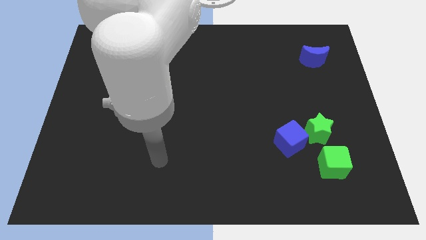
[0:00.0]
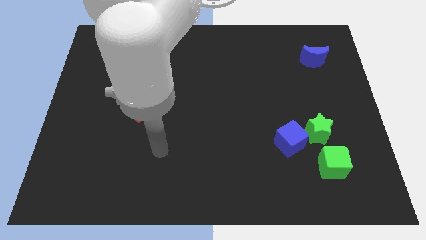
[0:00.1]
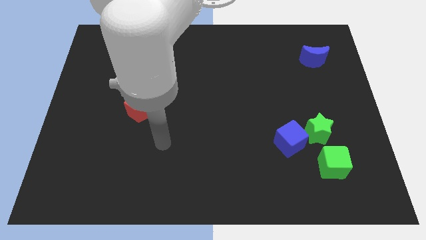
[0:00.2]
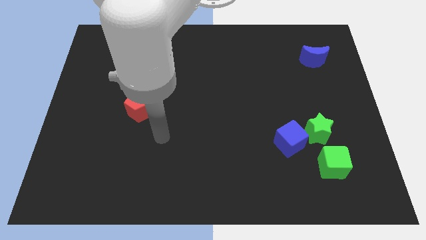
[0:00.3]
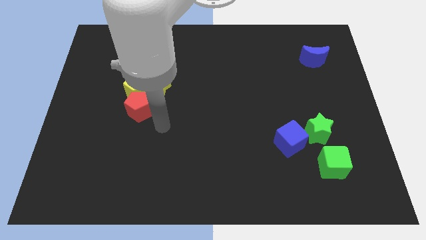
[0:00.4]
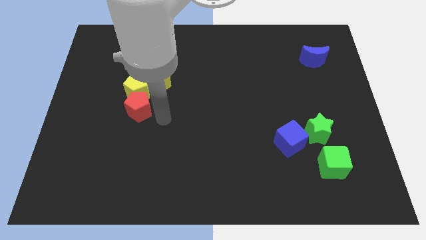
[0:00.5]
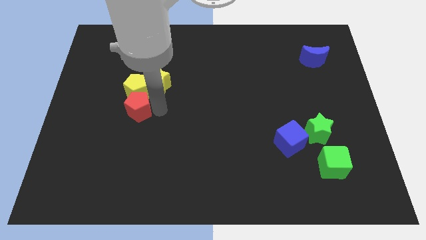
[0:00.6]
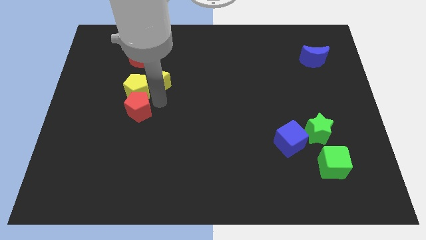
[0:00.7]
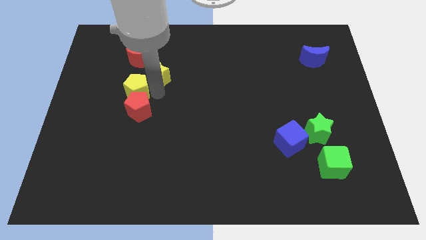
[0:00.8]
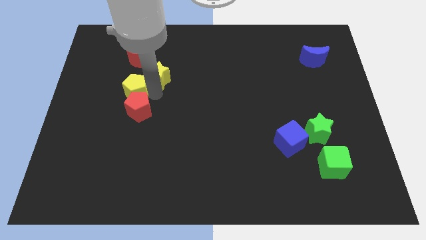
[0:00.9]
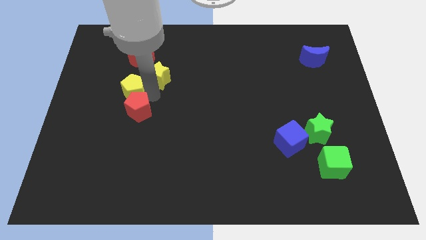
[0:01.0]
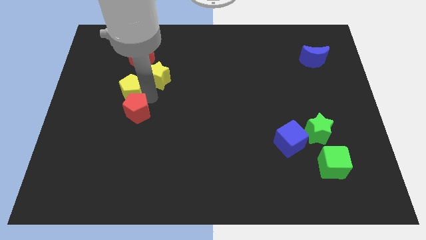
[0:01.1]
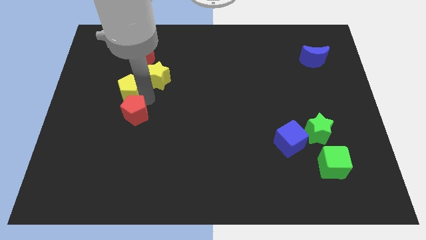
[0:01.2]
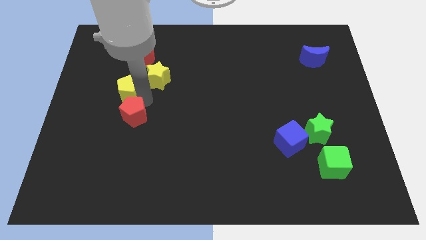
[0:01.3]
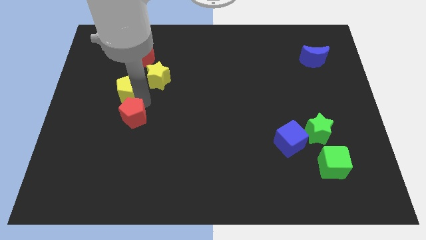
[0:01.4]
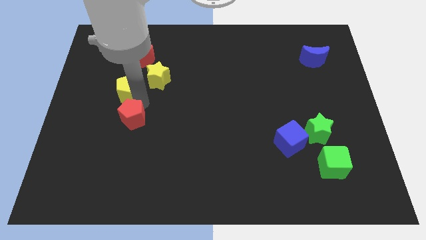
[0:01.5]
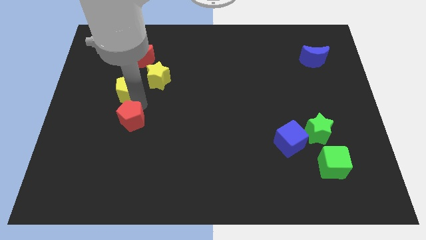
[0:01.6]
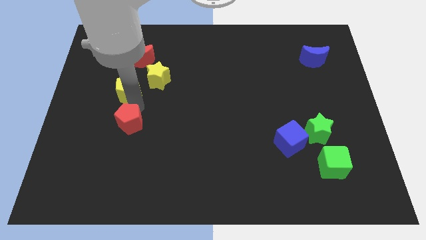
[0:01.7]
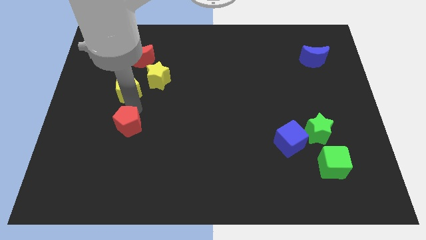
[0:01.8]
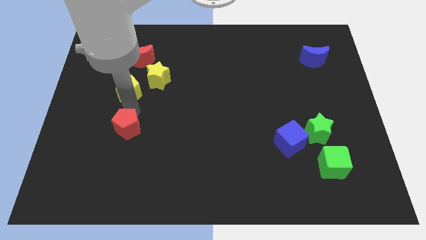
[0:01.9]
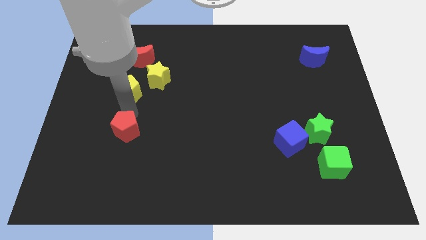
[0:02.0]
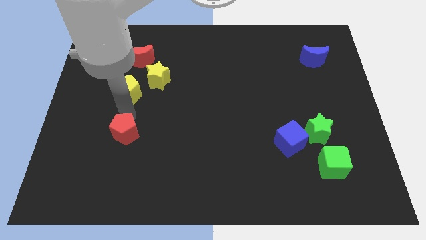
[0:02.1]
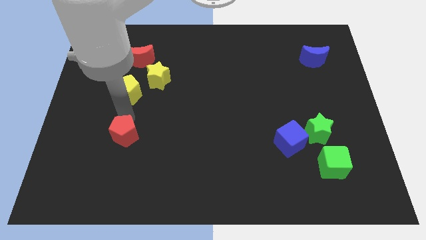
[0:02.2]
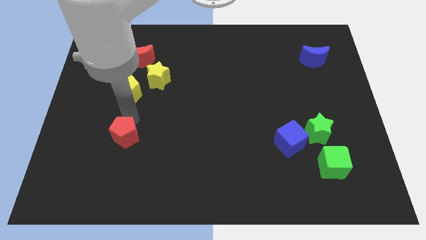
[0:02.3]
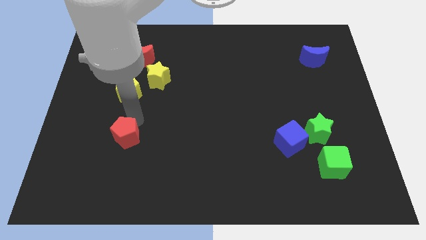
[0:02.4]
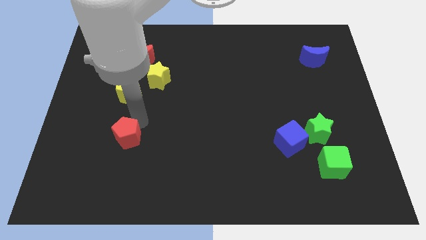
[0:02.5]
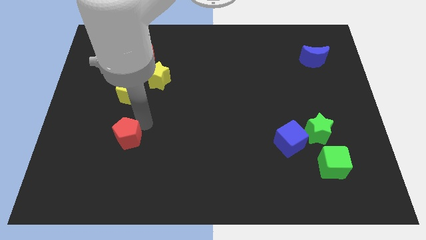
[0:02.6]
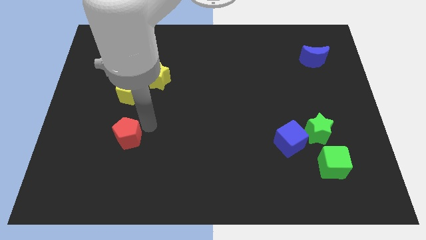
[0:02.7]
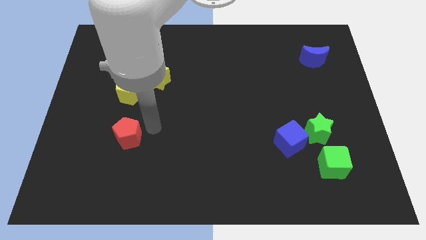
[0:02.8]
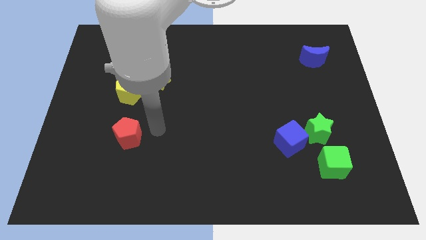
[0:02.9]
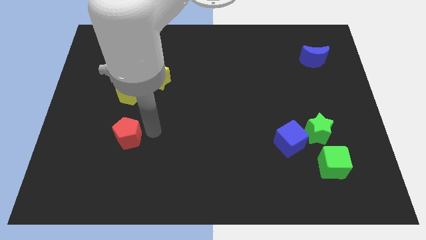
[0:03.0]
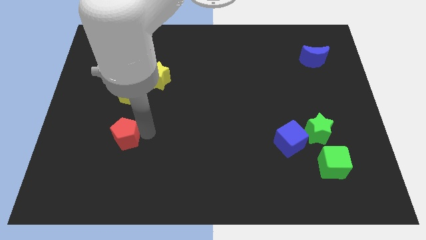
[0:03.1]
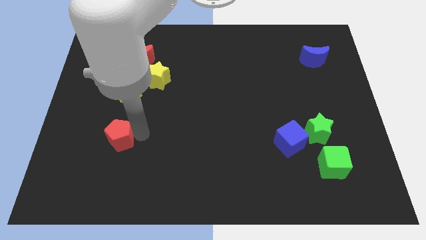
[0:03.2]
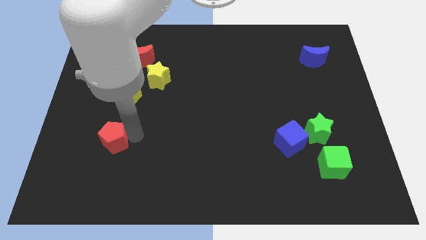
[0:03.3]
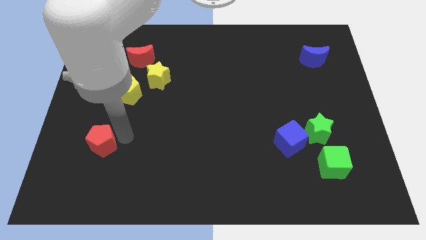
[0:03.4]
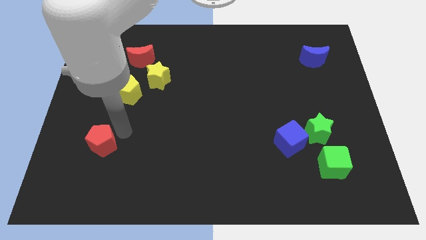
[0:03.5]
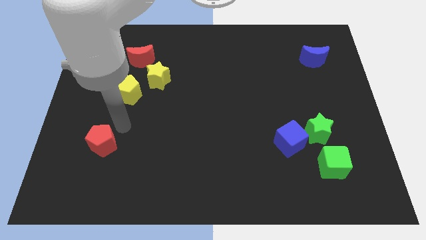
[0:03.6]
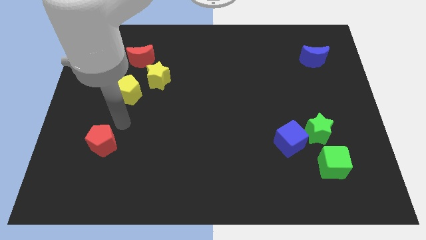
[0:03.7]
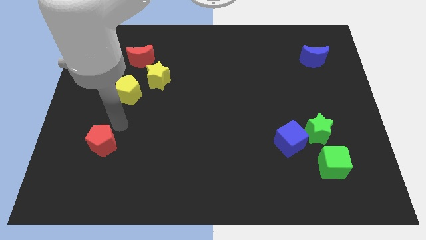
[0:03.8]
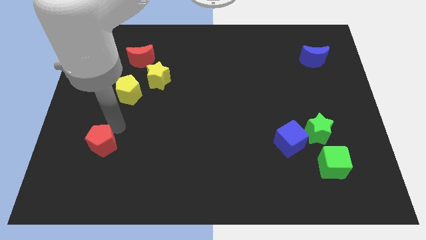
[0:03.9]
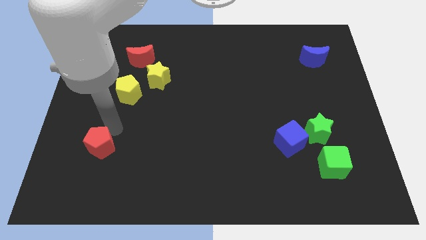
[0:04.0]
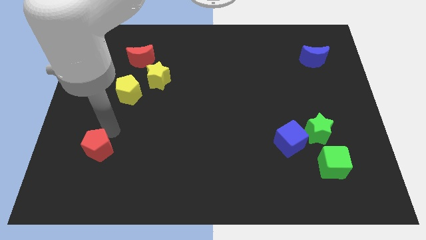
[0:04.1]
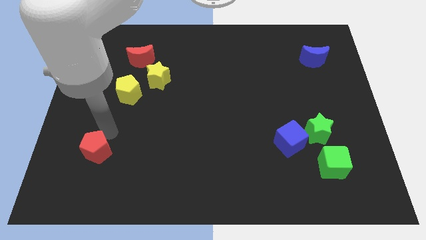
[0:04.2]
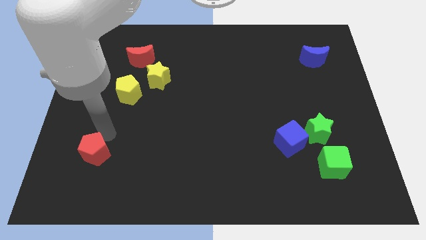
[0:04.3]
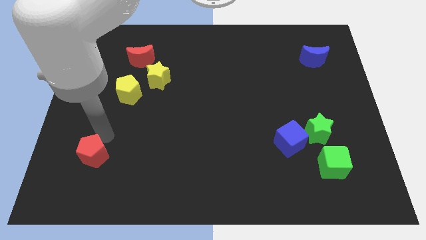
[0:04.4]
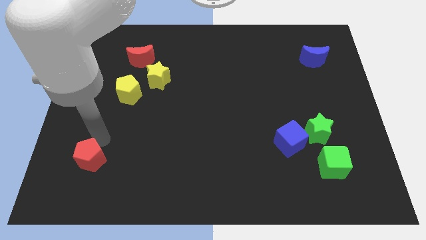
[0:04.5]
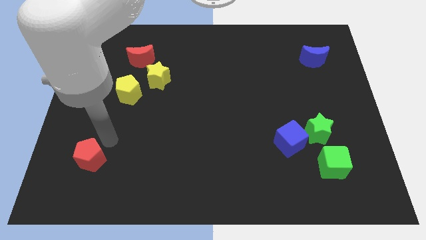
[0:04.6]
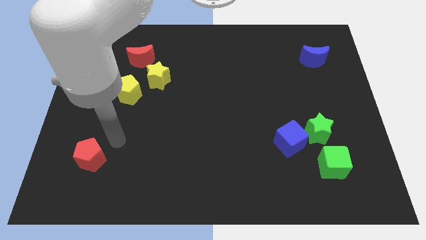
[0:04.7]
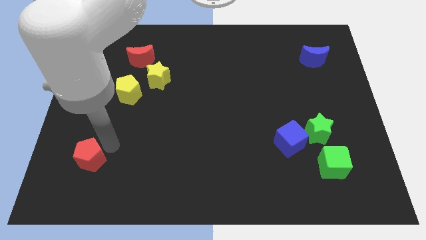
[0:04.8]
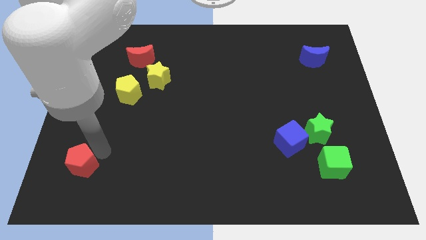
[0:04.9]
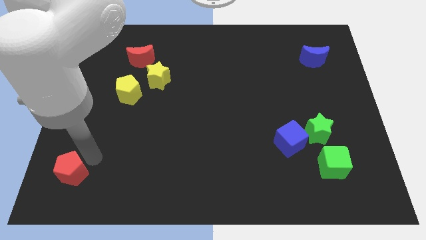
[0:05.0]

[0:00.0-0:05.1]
move the red pentagon to the lower left corner

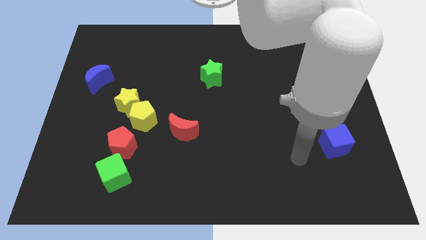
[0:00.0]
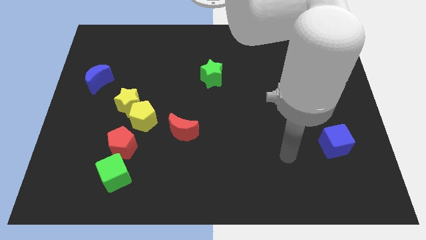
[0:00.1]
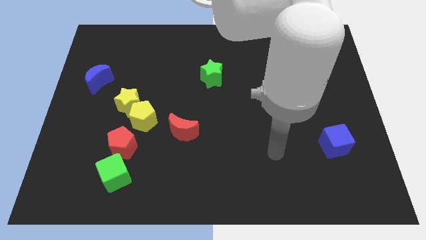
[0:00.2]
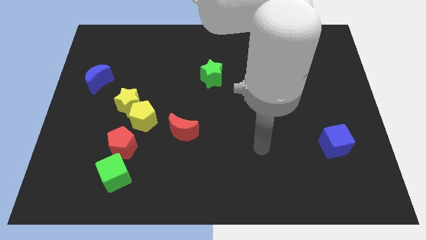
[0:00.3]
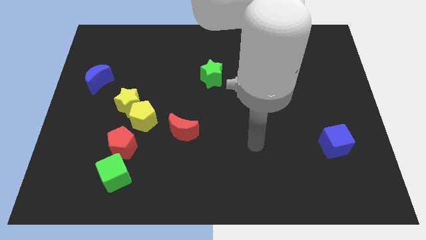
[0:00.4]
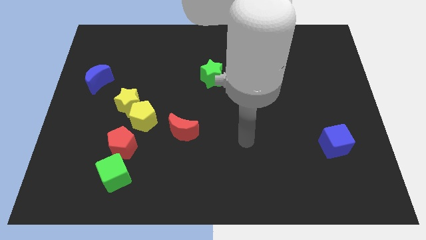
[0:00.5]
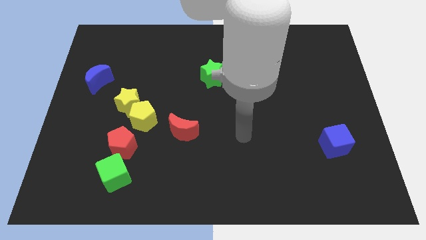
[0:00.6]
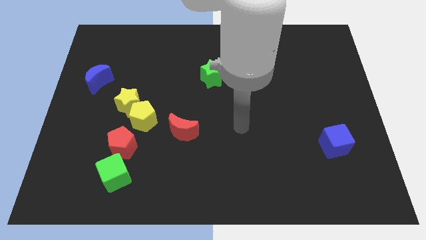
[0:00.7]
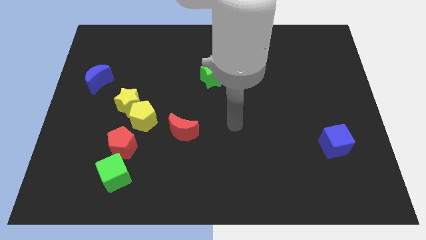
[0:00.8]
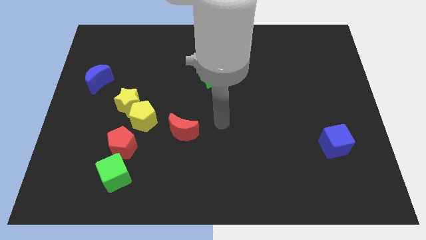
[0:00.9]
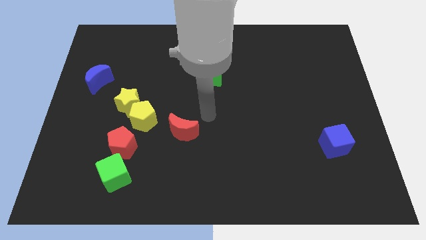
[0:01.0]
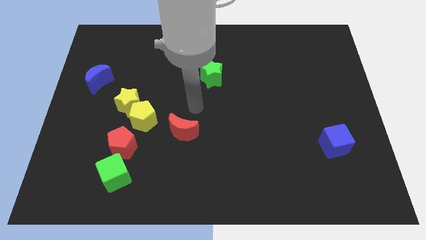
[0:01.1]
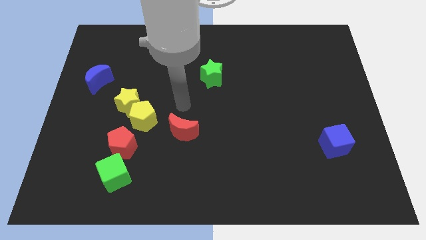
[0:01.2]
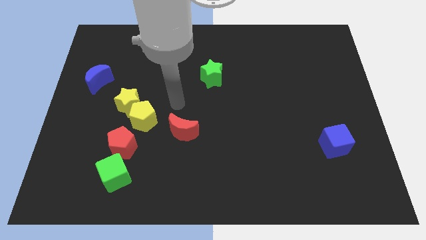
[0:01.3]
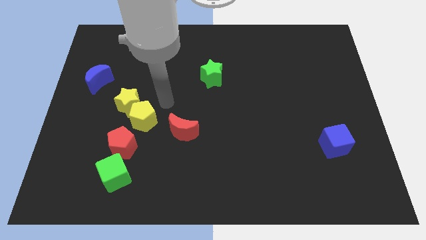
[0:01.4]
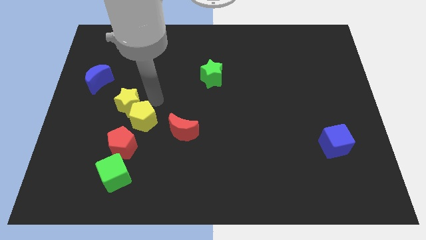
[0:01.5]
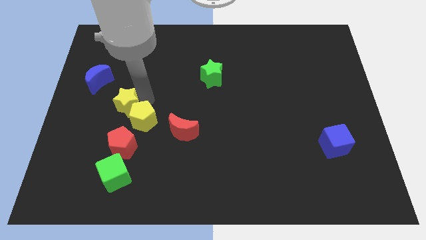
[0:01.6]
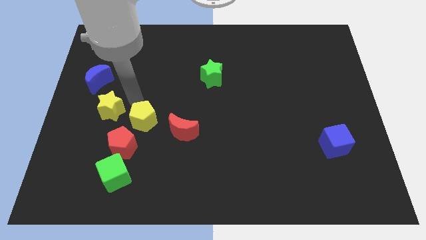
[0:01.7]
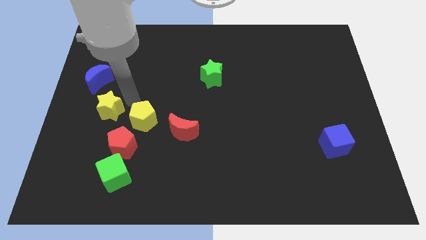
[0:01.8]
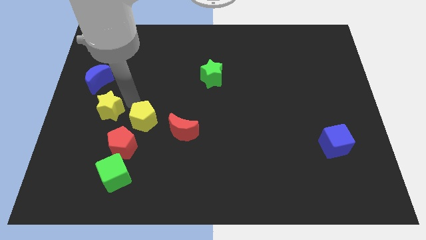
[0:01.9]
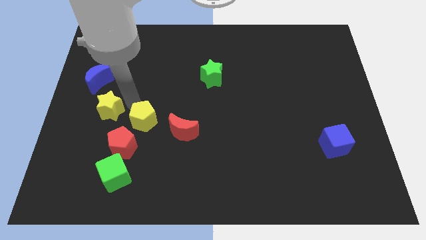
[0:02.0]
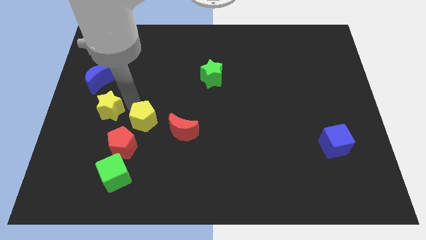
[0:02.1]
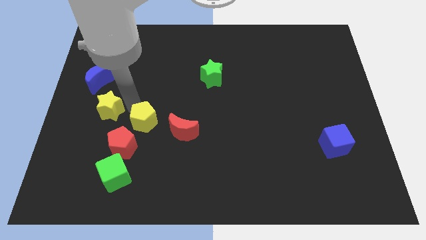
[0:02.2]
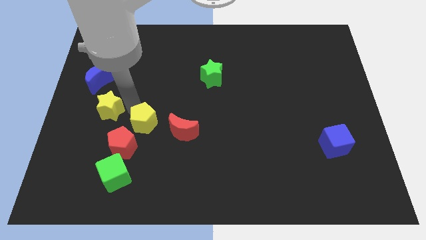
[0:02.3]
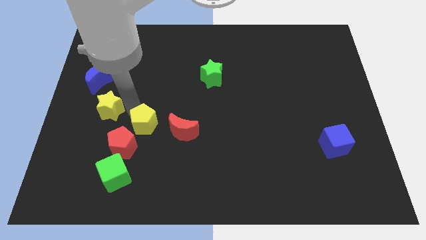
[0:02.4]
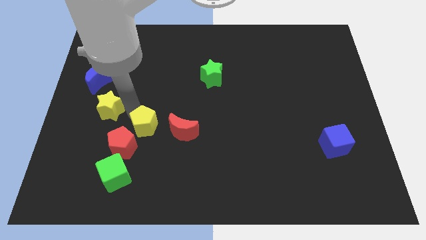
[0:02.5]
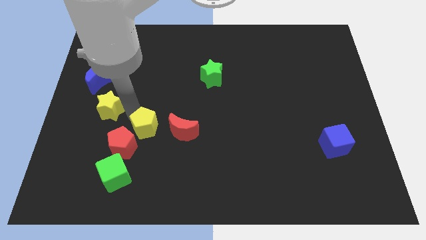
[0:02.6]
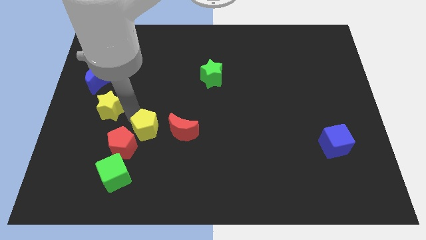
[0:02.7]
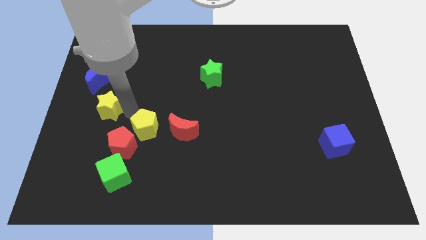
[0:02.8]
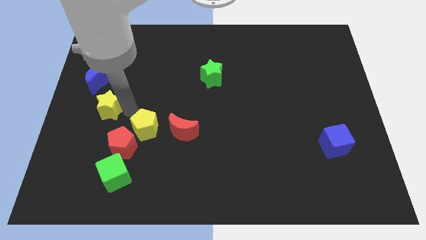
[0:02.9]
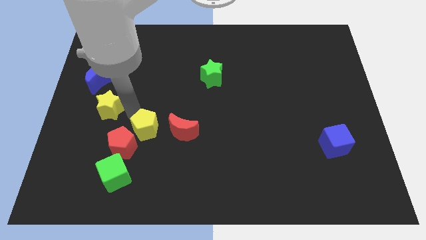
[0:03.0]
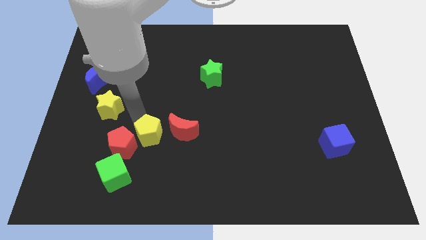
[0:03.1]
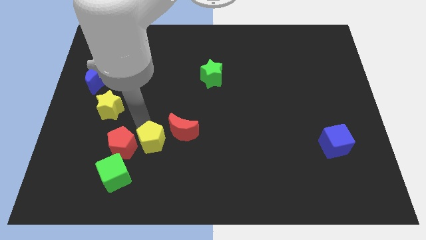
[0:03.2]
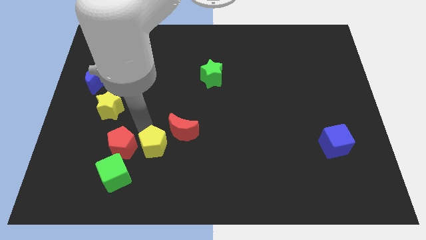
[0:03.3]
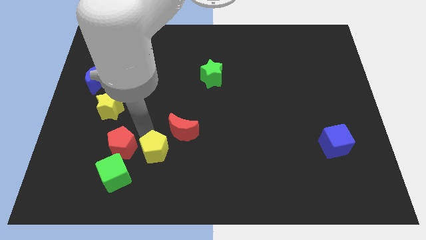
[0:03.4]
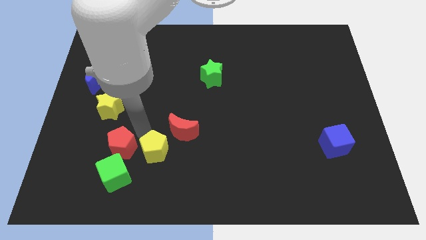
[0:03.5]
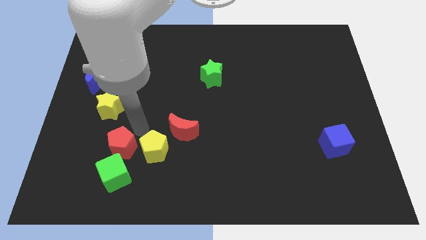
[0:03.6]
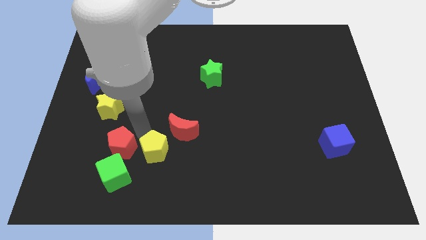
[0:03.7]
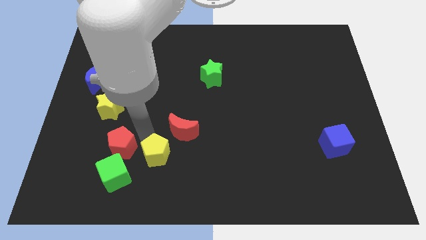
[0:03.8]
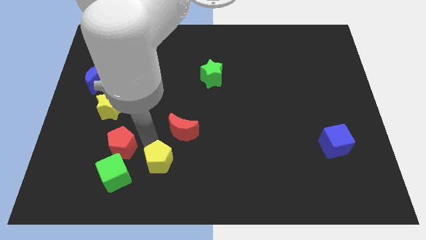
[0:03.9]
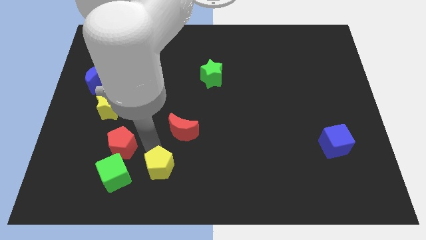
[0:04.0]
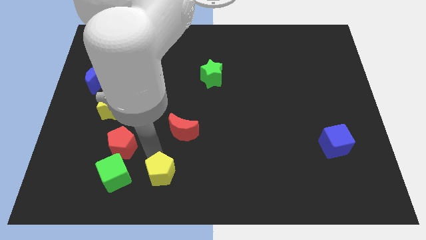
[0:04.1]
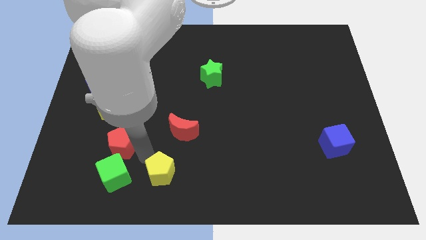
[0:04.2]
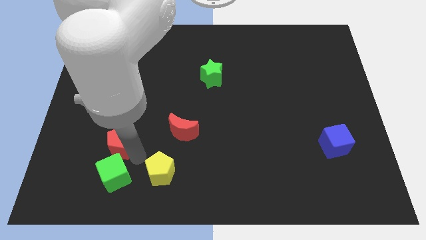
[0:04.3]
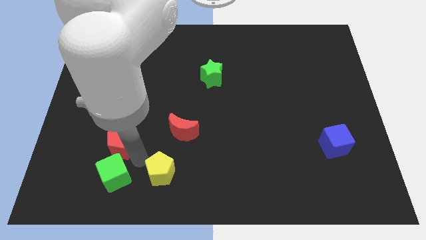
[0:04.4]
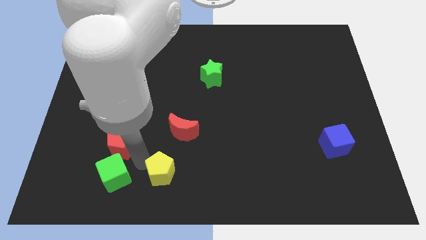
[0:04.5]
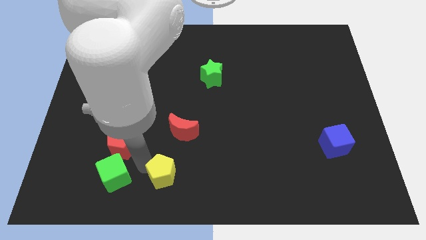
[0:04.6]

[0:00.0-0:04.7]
slide the yellow pentagon to the bottom side
